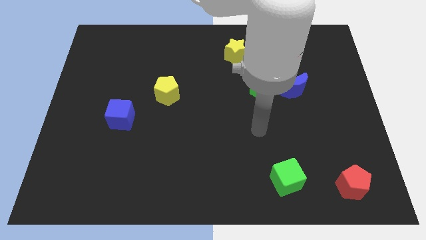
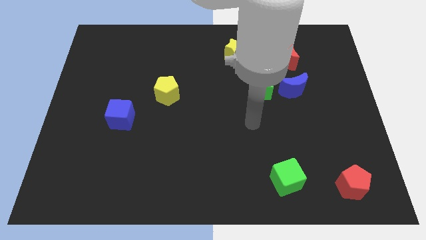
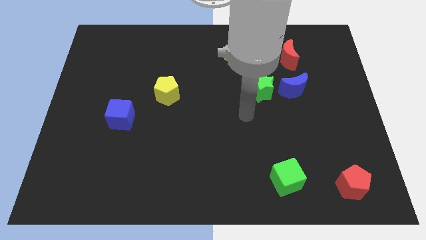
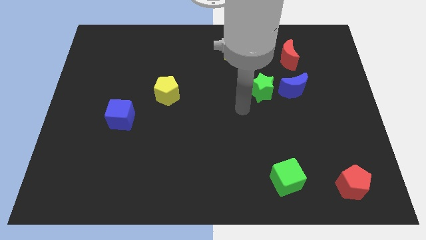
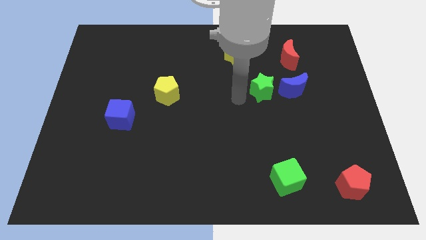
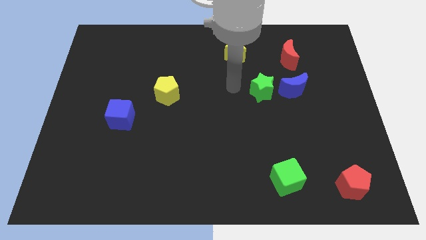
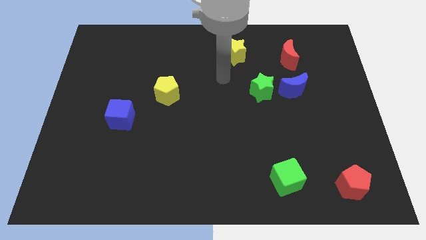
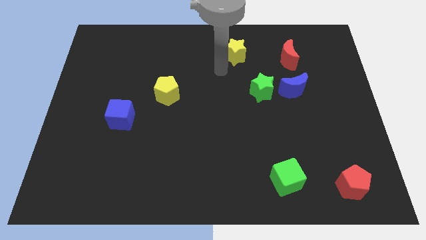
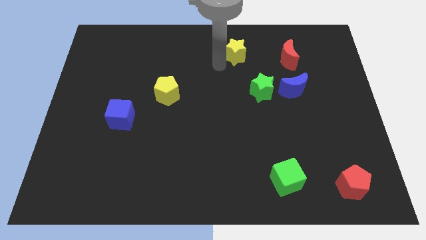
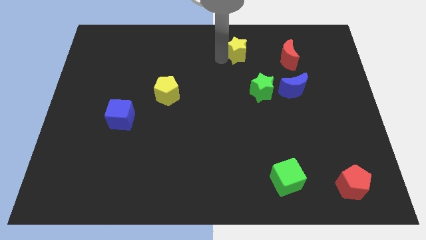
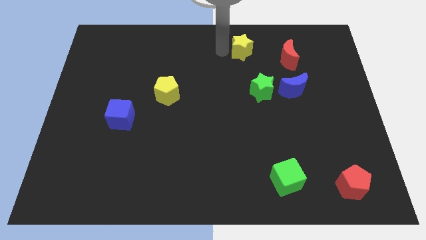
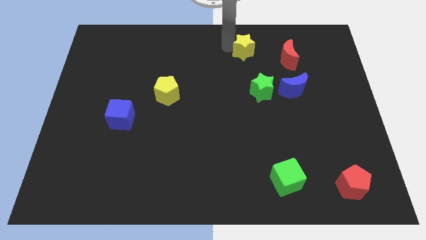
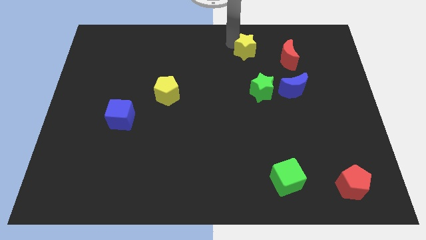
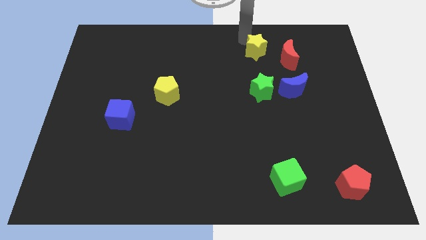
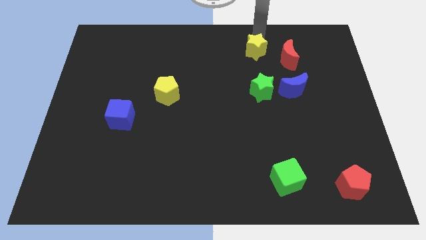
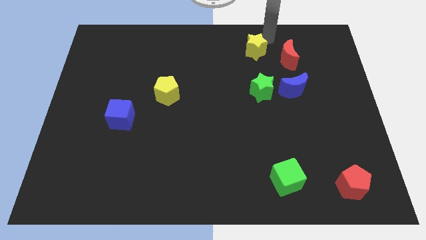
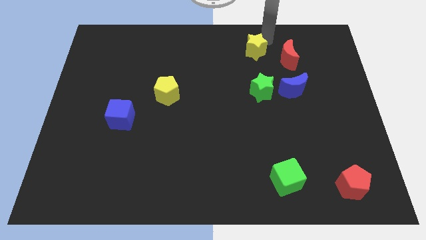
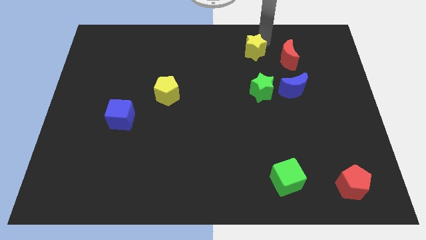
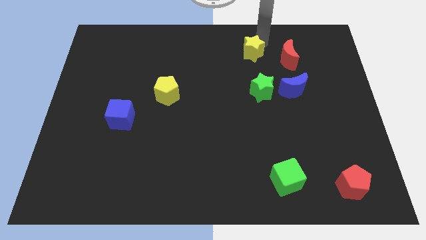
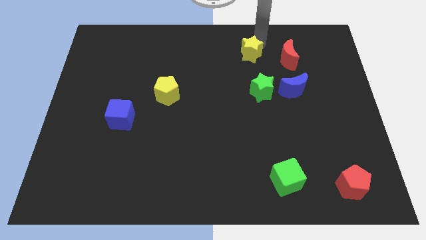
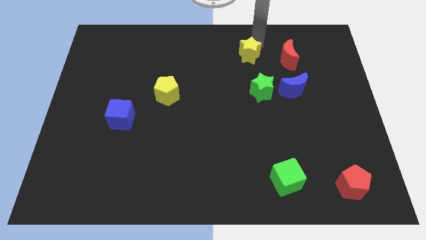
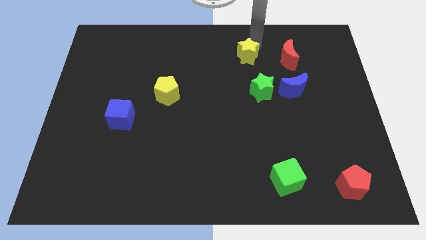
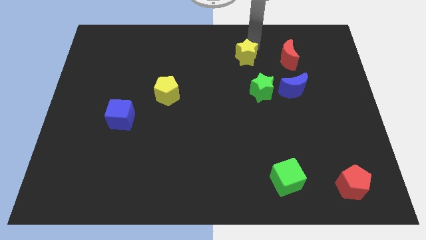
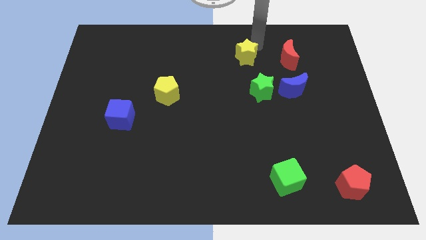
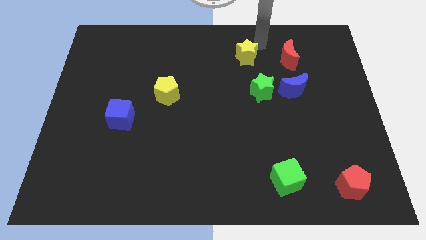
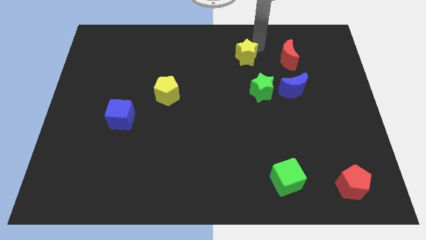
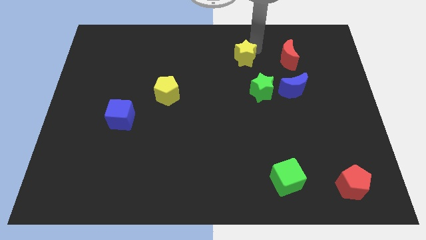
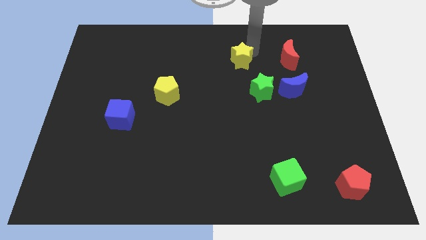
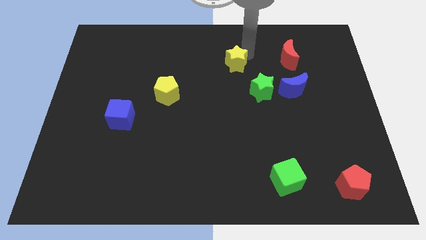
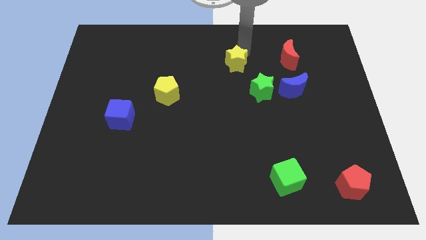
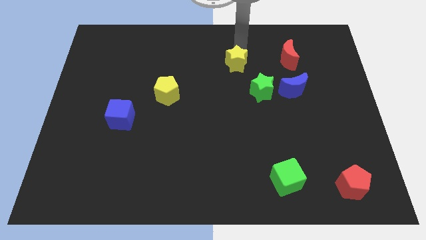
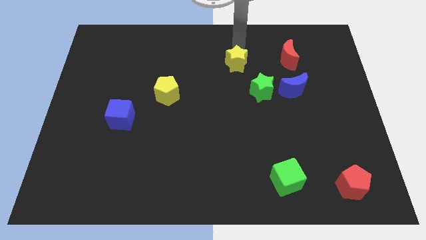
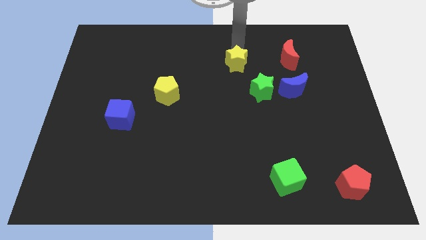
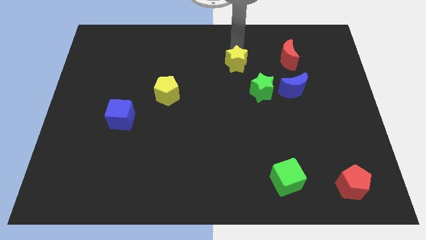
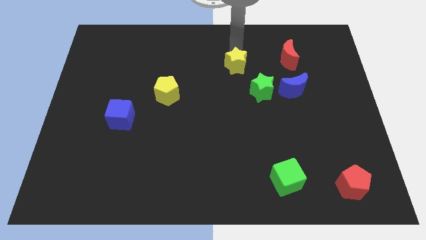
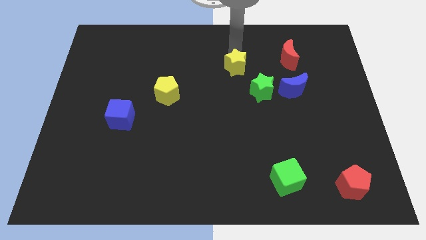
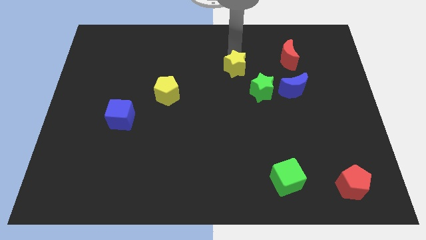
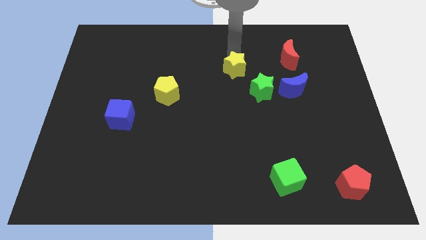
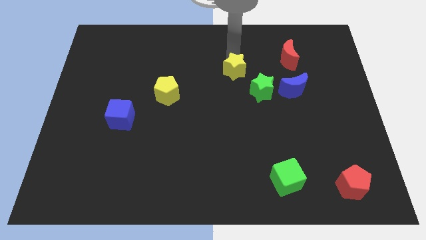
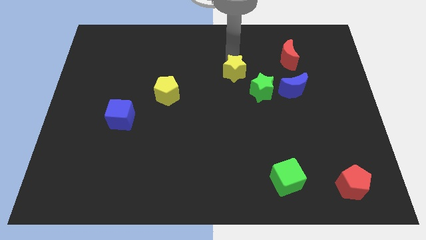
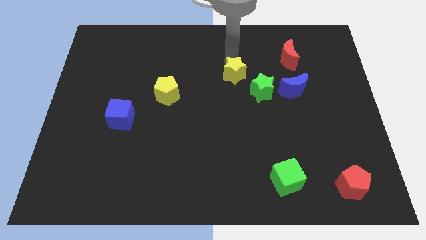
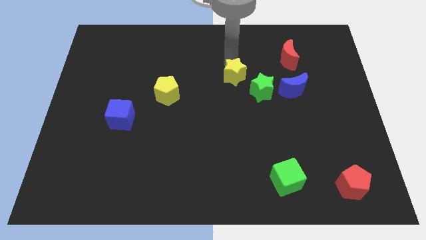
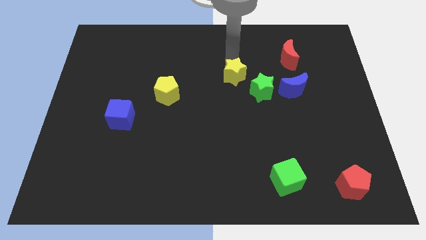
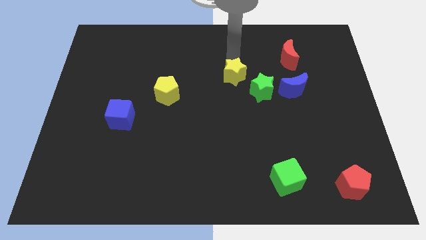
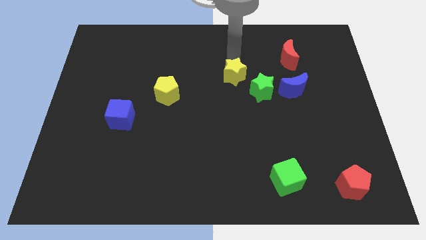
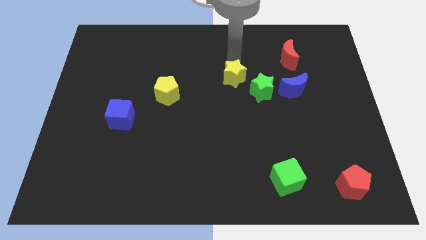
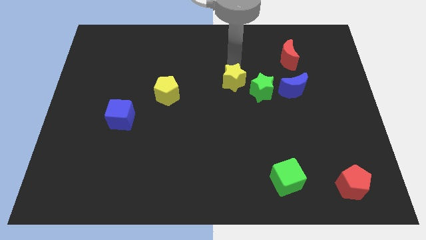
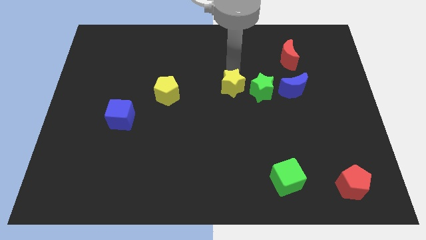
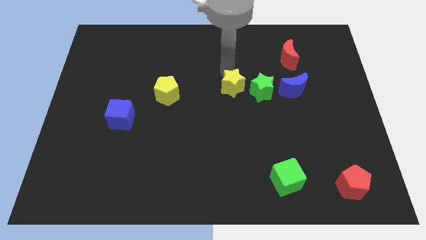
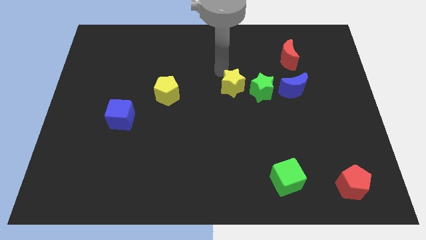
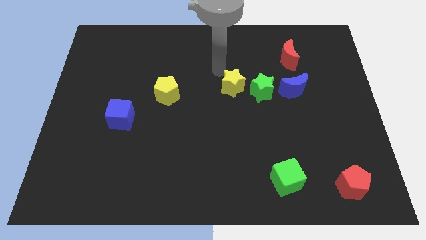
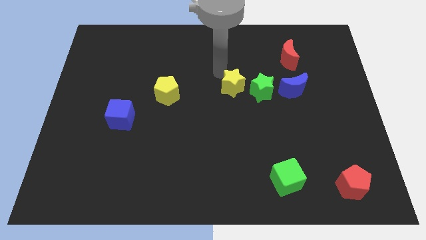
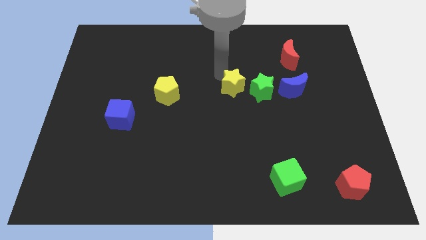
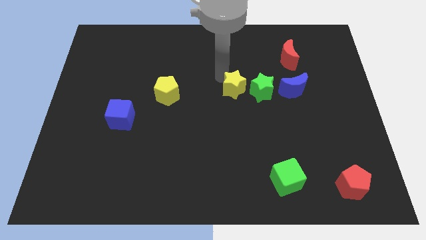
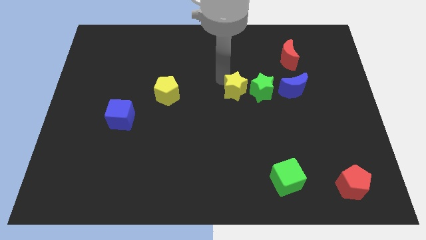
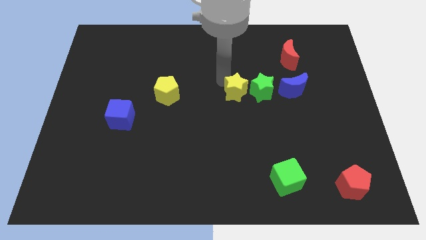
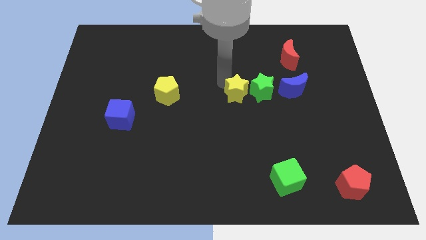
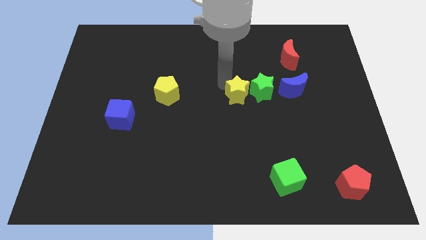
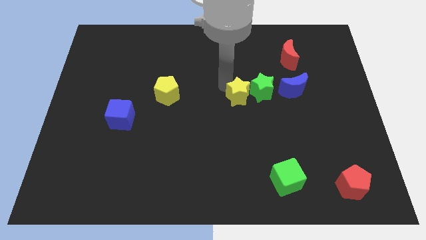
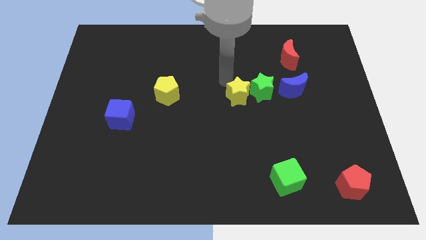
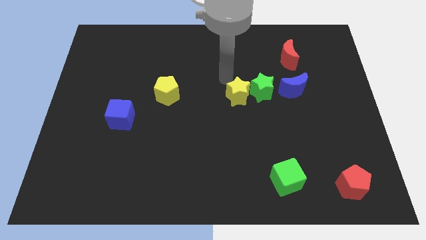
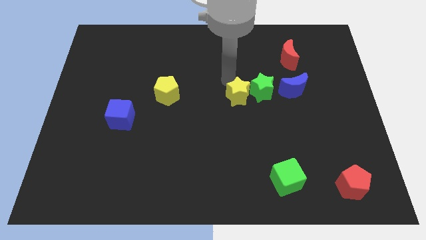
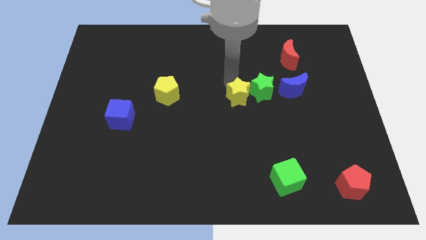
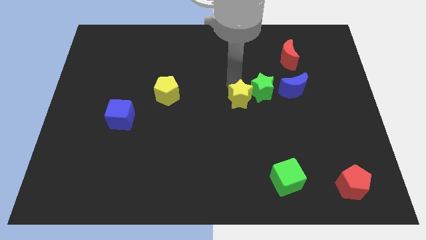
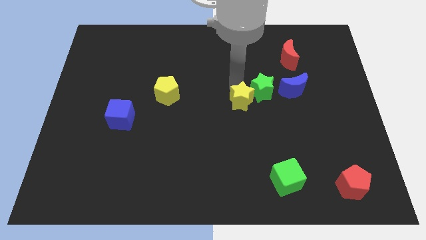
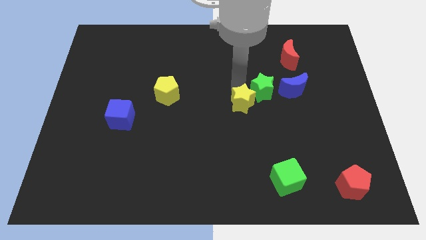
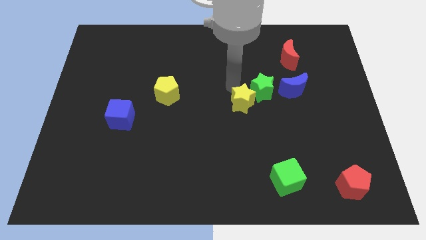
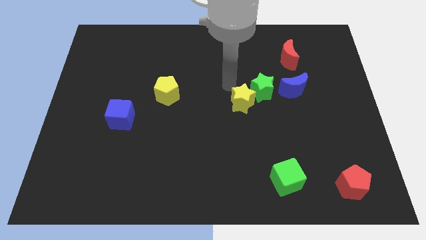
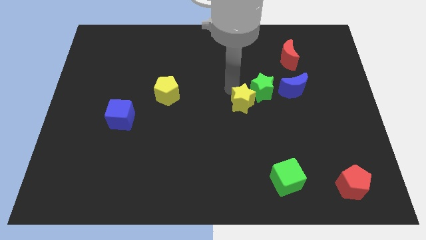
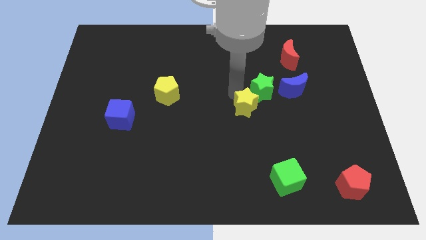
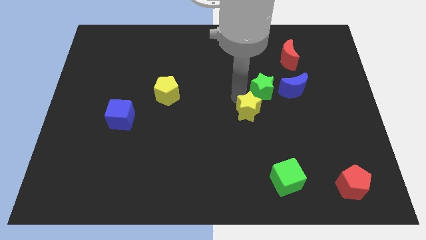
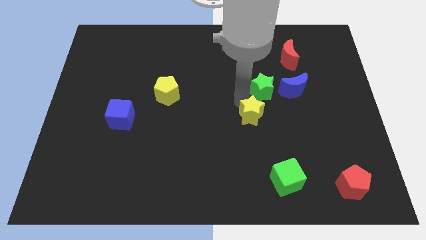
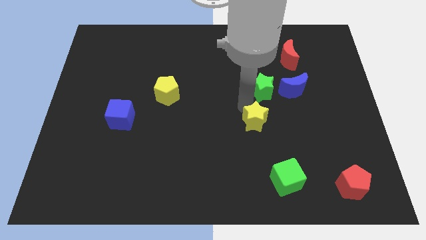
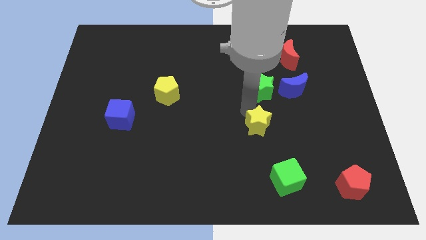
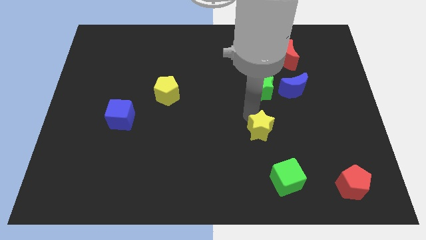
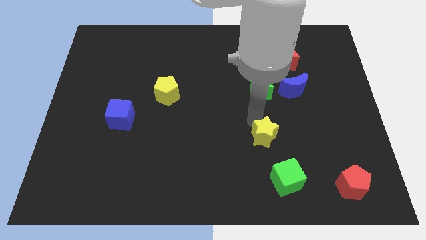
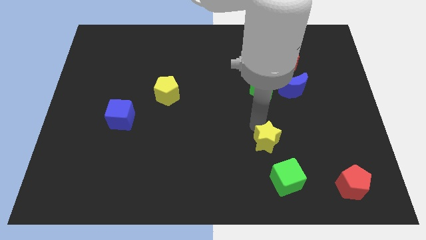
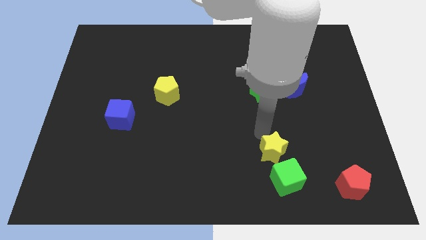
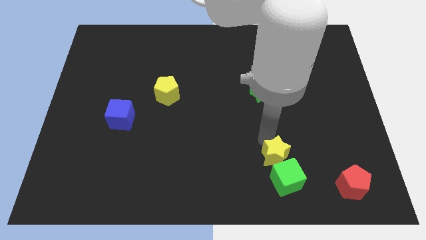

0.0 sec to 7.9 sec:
move the yellow star close to the green cube

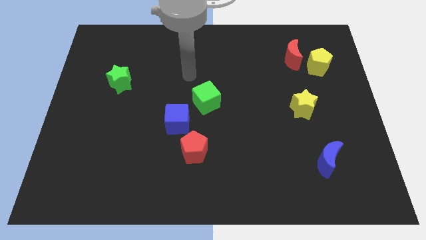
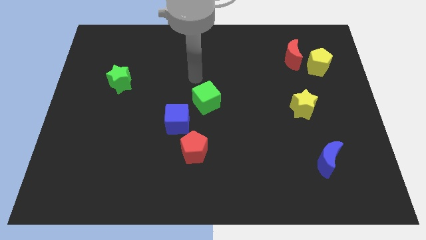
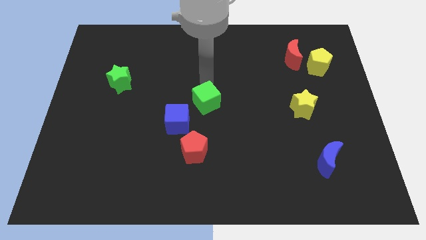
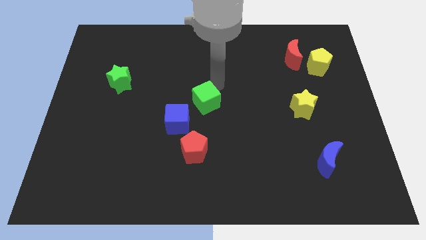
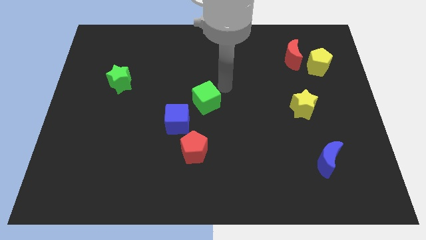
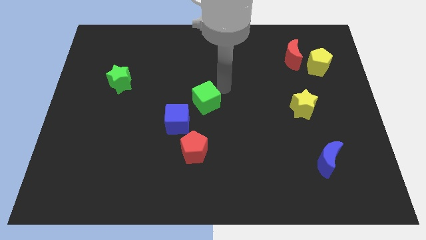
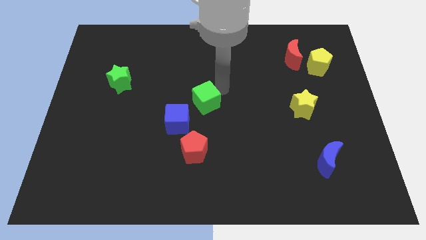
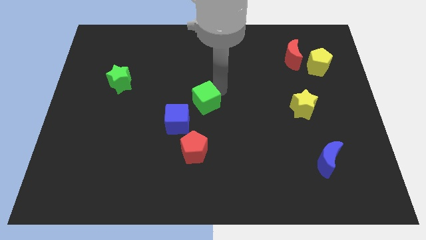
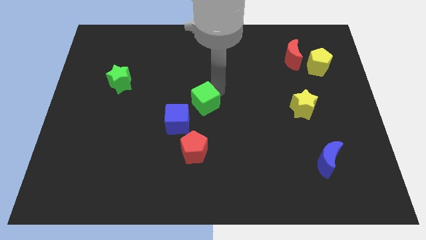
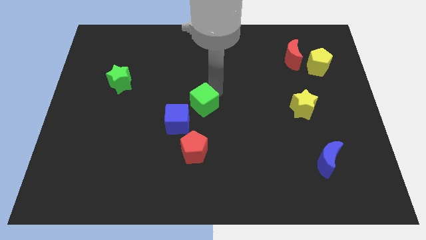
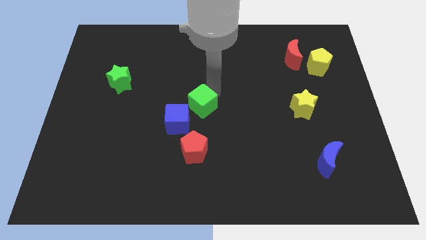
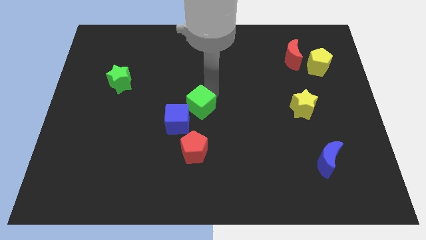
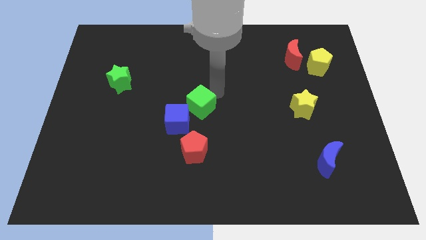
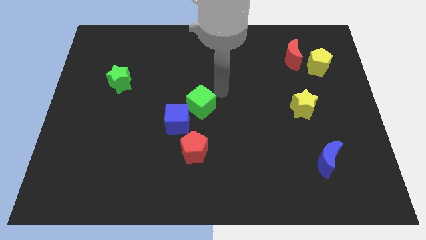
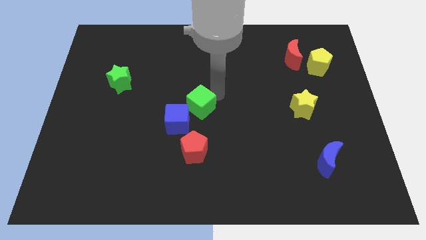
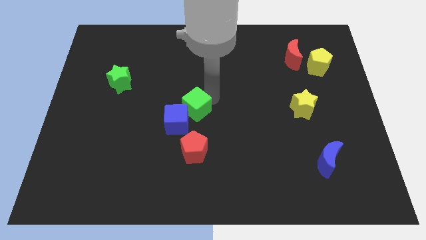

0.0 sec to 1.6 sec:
put the green cube towards the blue cube
